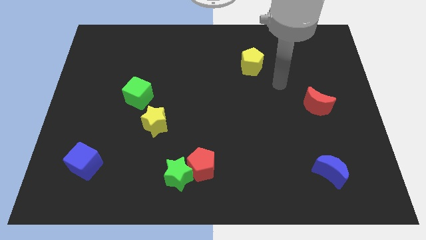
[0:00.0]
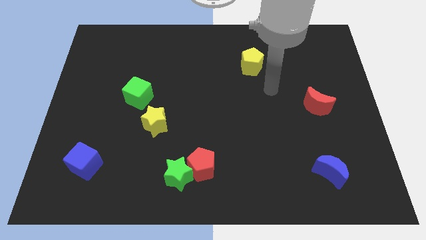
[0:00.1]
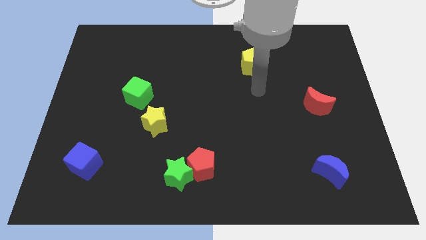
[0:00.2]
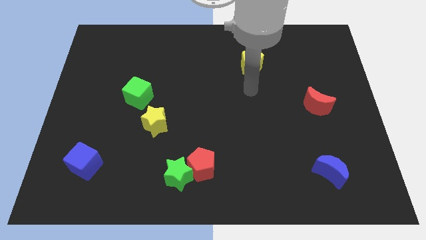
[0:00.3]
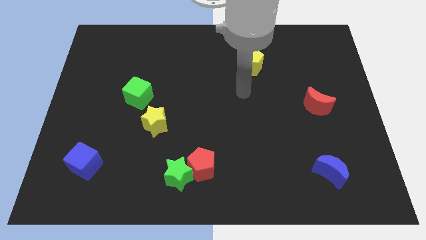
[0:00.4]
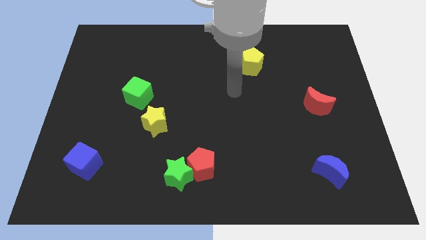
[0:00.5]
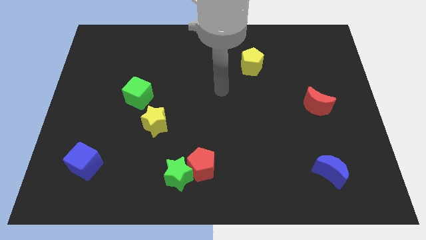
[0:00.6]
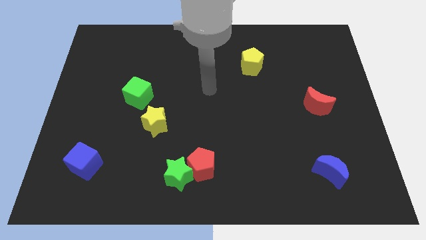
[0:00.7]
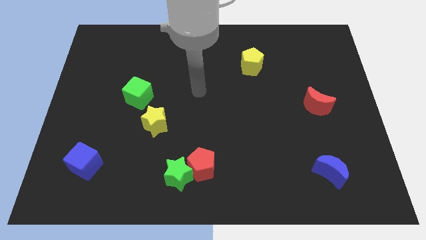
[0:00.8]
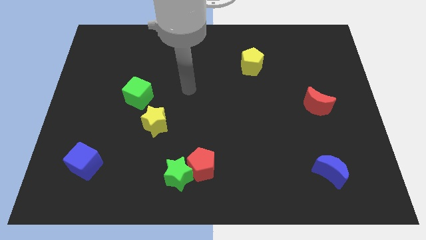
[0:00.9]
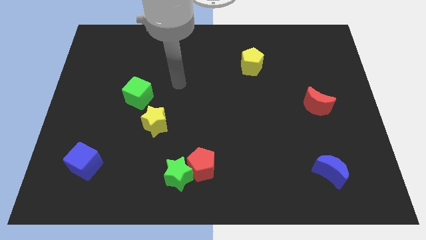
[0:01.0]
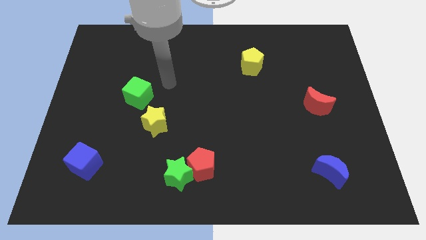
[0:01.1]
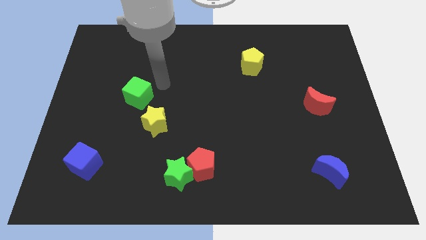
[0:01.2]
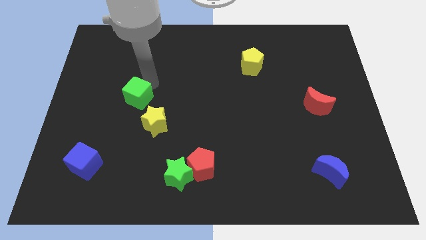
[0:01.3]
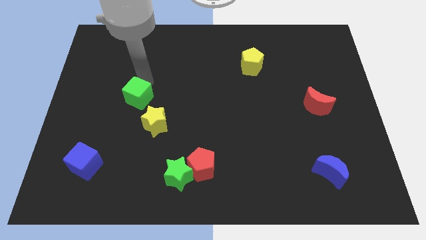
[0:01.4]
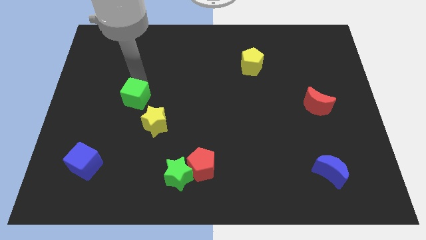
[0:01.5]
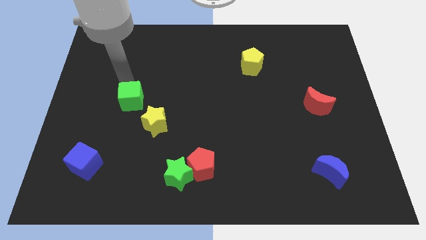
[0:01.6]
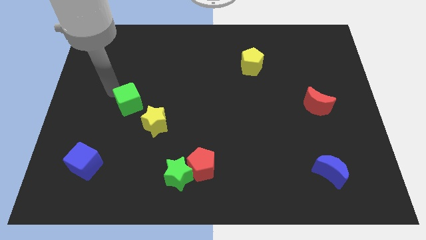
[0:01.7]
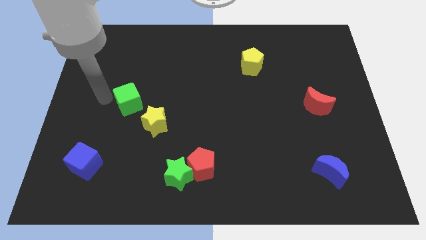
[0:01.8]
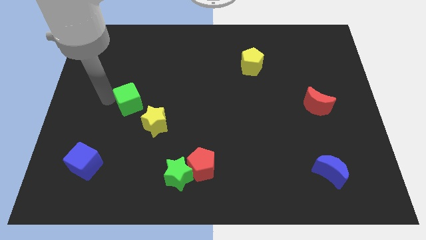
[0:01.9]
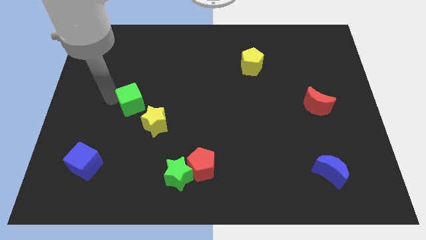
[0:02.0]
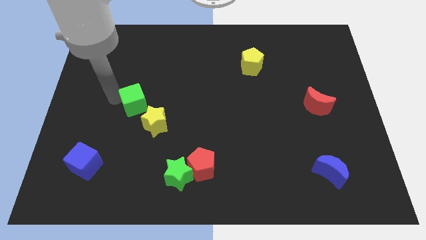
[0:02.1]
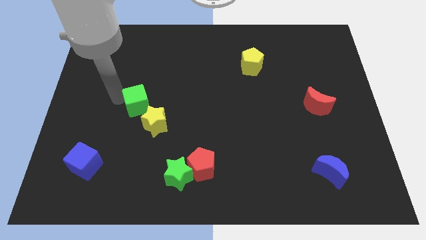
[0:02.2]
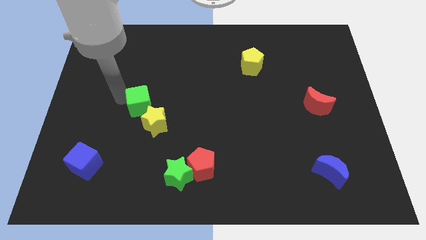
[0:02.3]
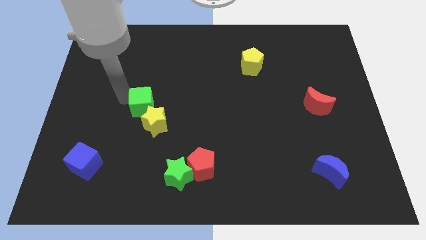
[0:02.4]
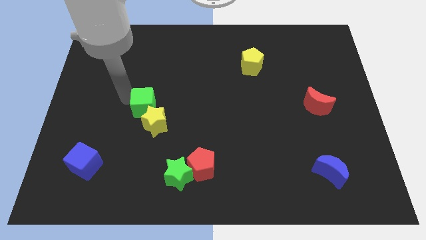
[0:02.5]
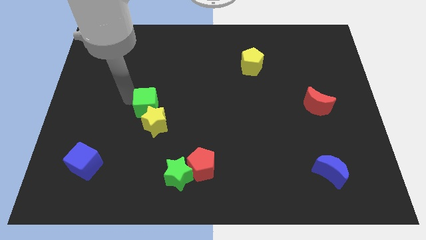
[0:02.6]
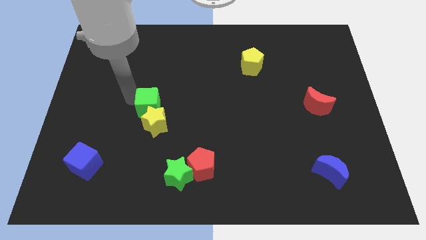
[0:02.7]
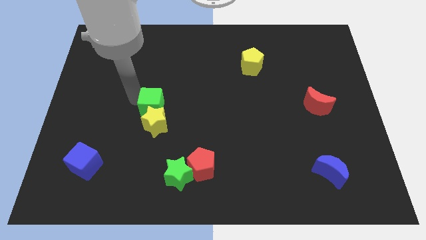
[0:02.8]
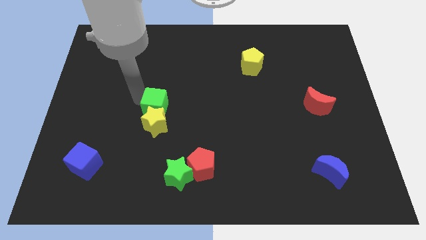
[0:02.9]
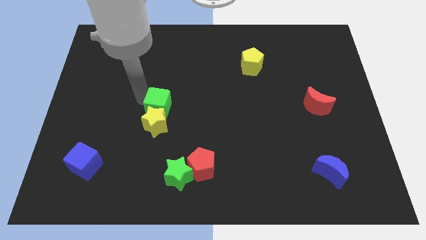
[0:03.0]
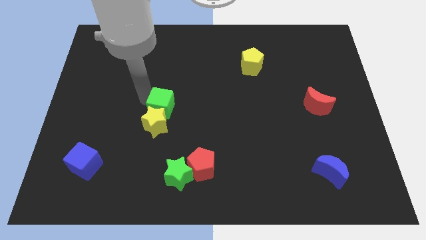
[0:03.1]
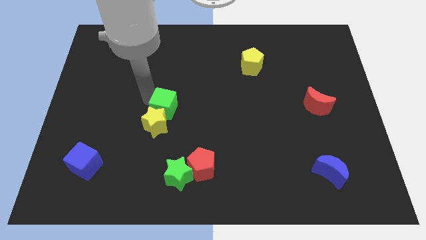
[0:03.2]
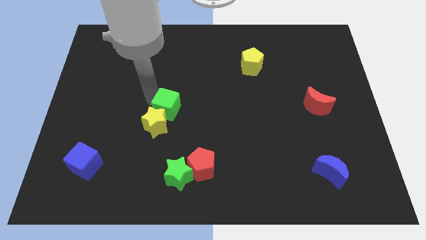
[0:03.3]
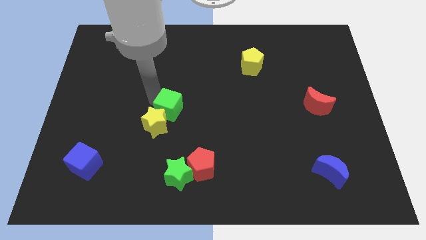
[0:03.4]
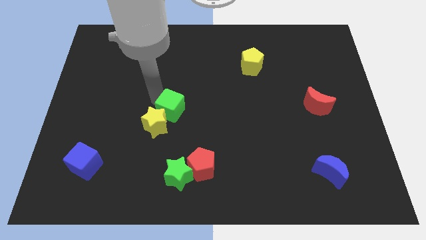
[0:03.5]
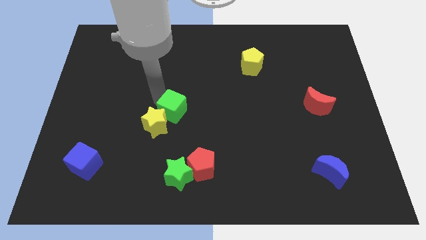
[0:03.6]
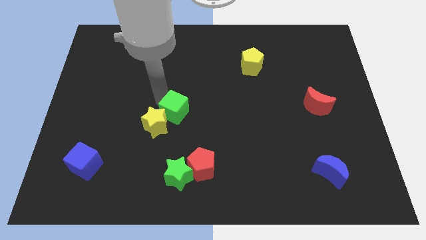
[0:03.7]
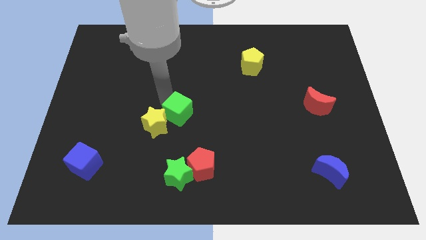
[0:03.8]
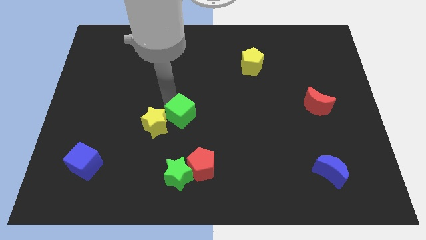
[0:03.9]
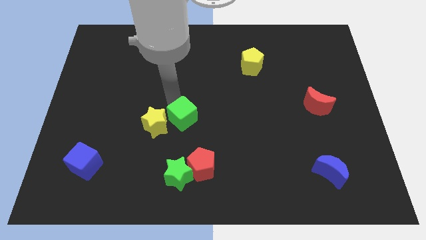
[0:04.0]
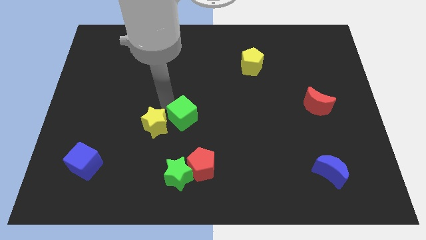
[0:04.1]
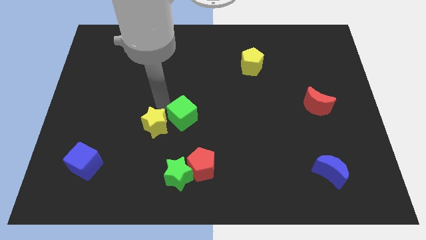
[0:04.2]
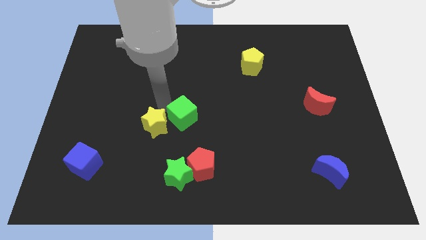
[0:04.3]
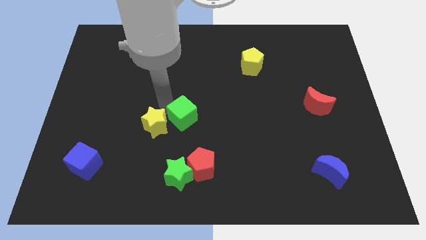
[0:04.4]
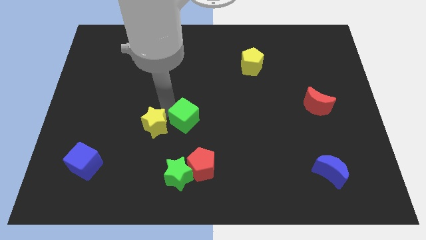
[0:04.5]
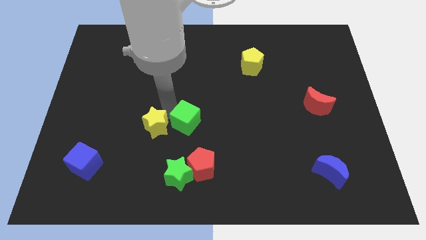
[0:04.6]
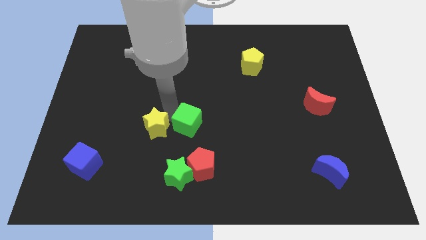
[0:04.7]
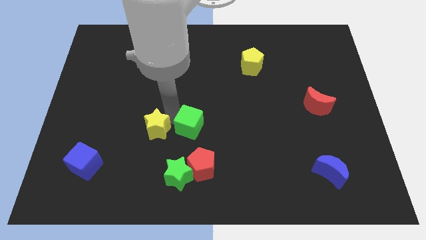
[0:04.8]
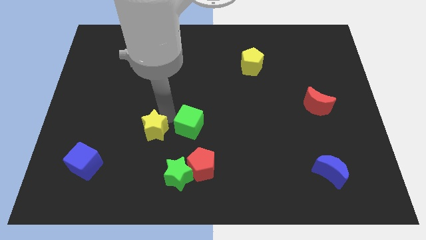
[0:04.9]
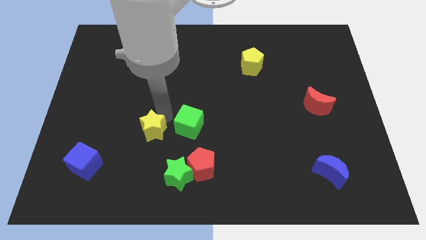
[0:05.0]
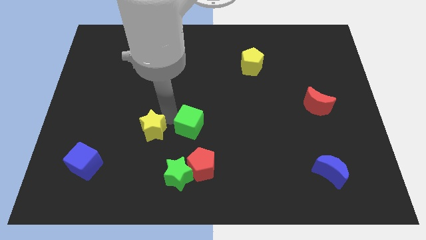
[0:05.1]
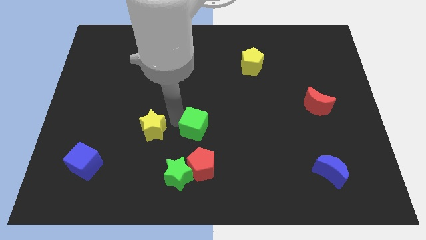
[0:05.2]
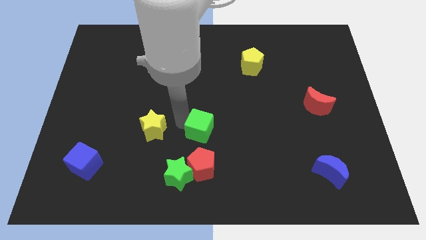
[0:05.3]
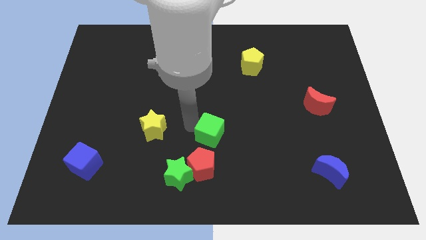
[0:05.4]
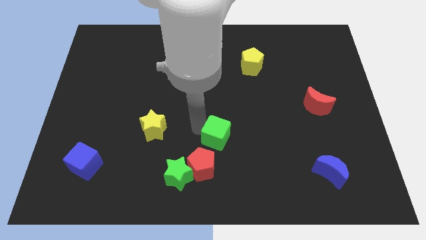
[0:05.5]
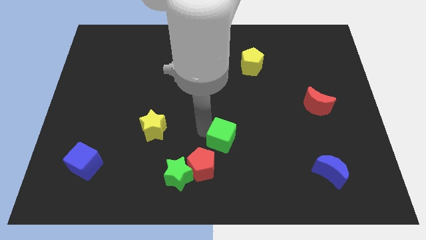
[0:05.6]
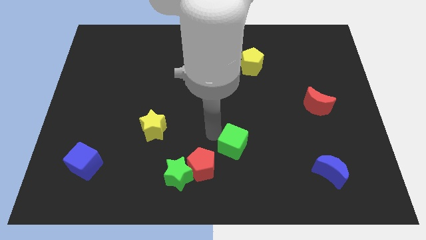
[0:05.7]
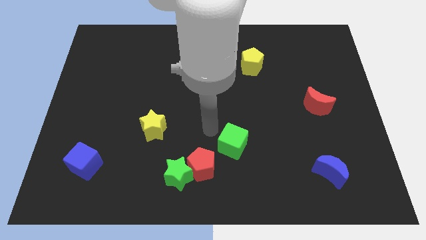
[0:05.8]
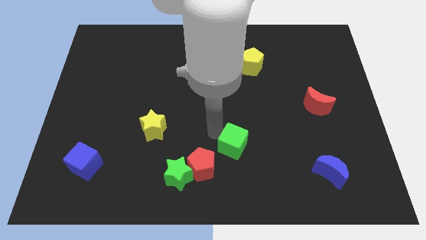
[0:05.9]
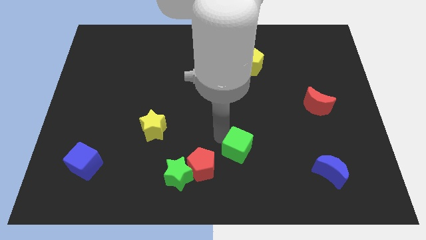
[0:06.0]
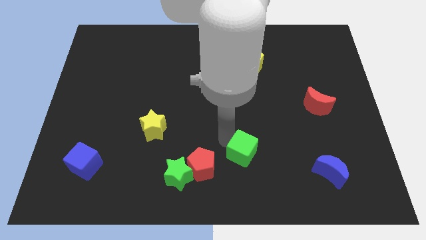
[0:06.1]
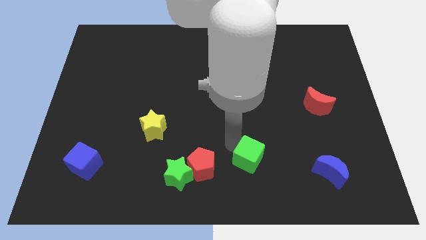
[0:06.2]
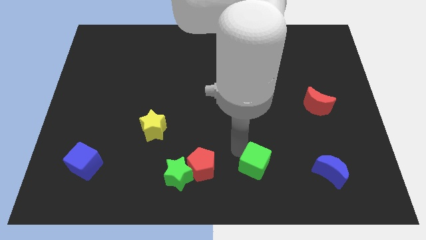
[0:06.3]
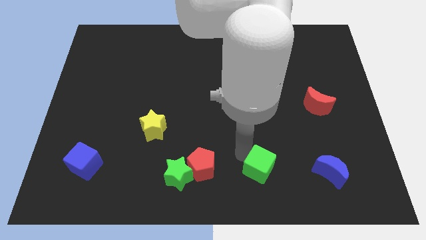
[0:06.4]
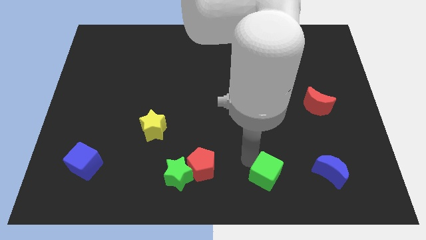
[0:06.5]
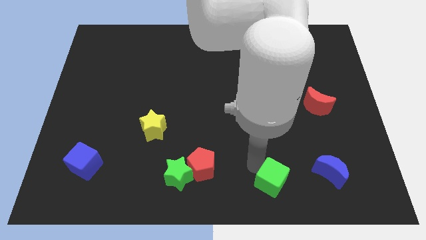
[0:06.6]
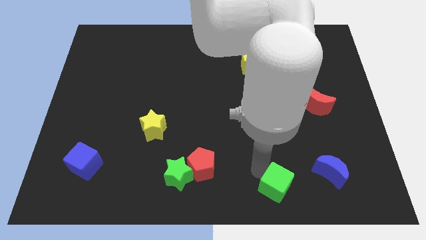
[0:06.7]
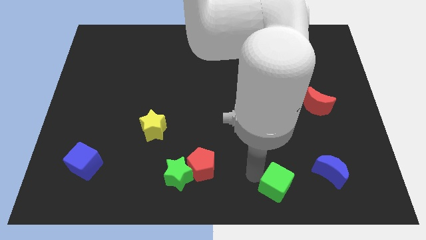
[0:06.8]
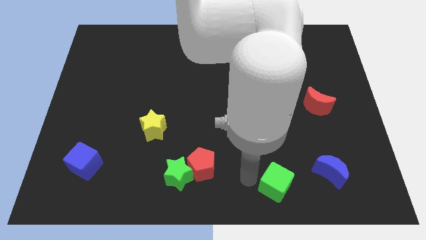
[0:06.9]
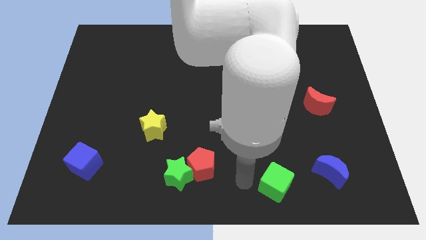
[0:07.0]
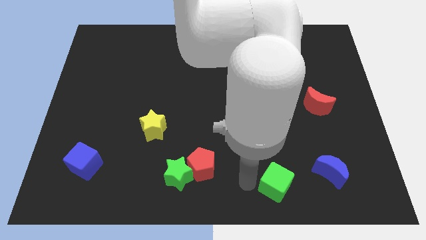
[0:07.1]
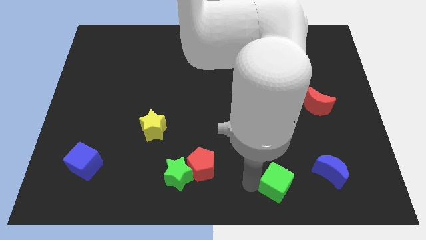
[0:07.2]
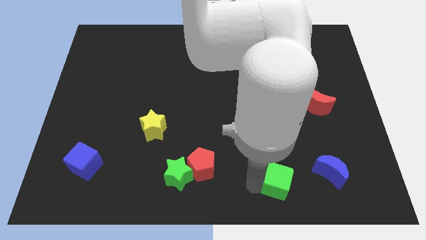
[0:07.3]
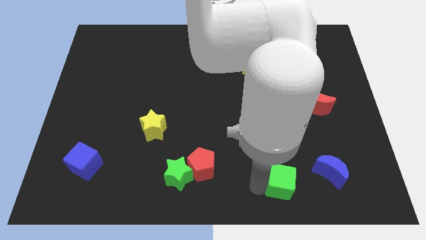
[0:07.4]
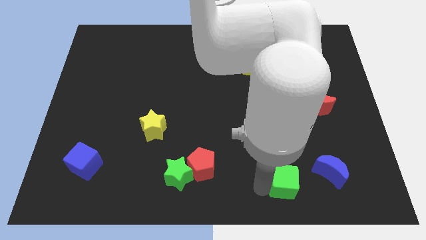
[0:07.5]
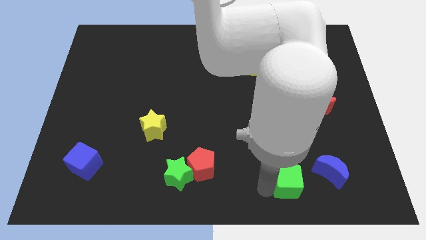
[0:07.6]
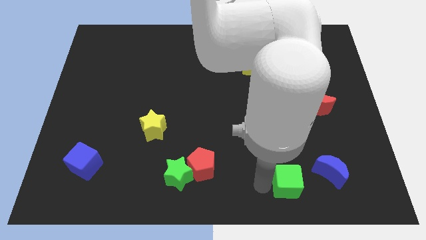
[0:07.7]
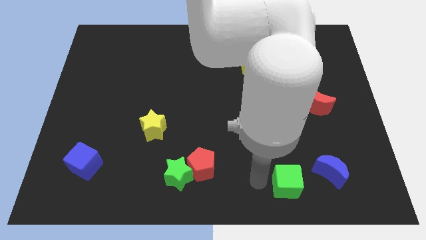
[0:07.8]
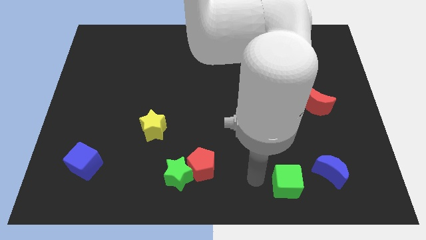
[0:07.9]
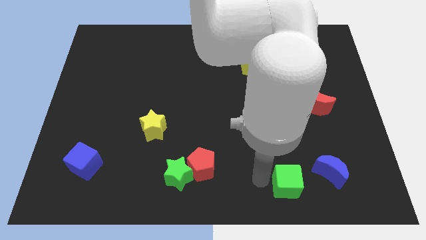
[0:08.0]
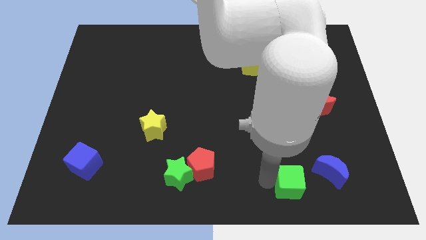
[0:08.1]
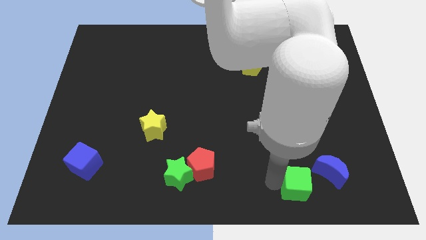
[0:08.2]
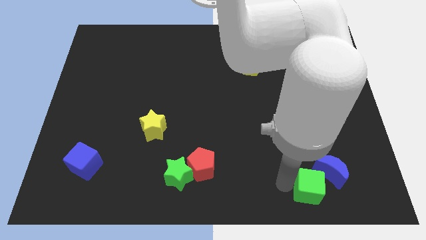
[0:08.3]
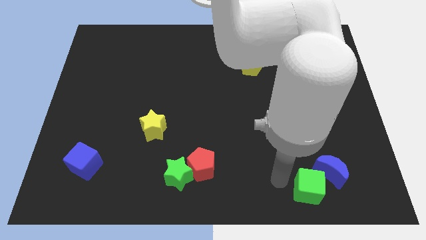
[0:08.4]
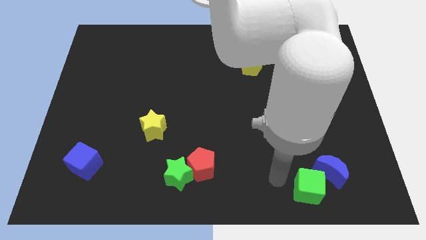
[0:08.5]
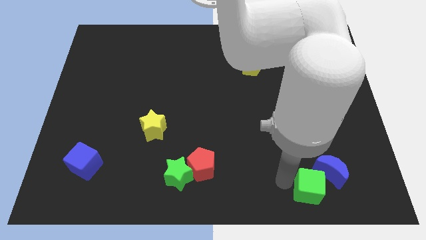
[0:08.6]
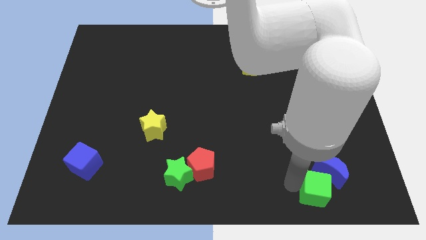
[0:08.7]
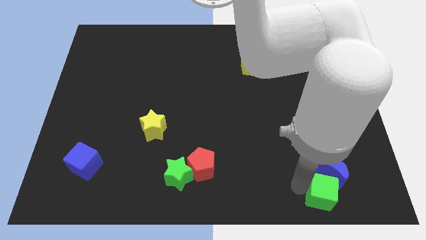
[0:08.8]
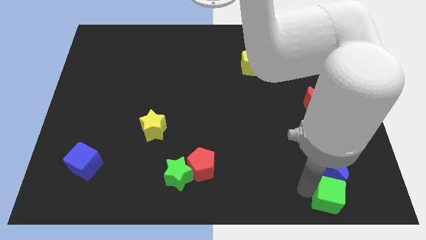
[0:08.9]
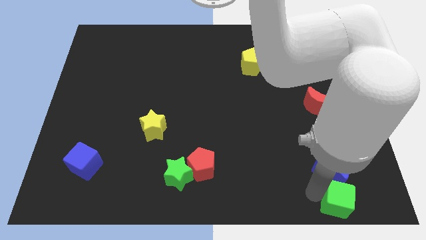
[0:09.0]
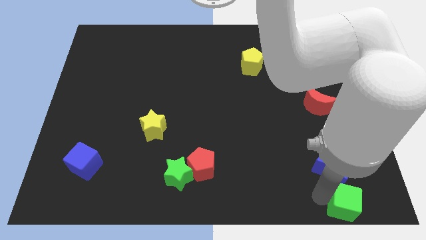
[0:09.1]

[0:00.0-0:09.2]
put the green cube to the bottom right corner
